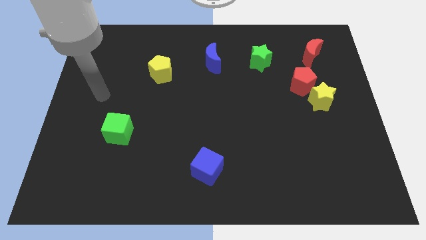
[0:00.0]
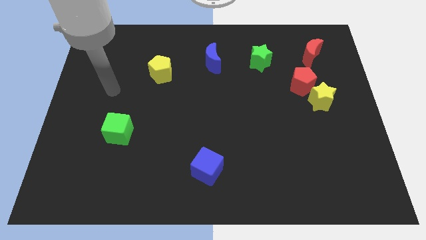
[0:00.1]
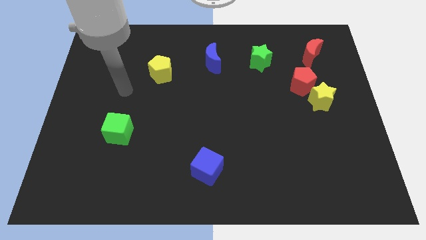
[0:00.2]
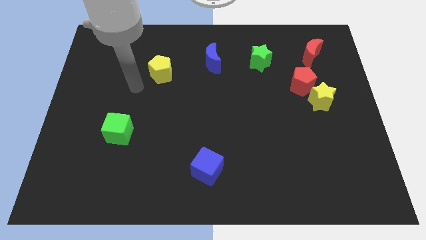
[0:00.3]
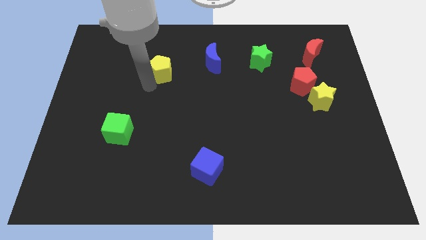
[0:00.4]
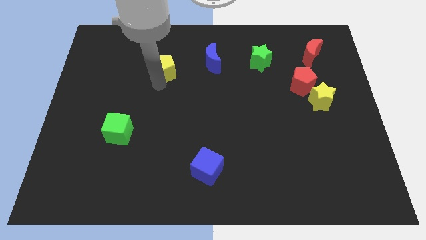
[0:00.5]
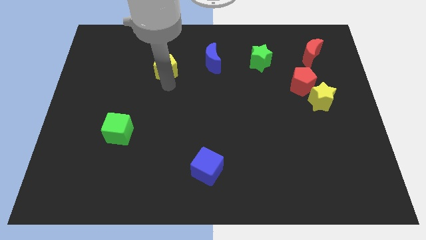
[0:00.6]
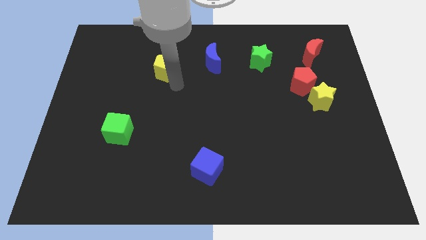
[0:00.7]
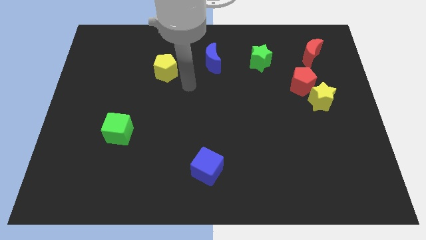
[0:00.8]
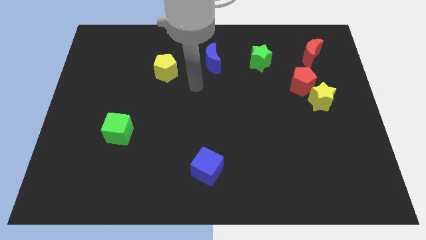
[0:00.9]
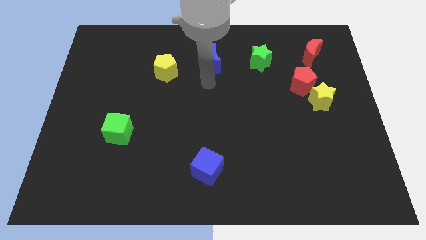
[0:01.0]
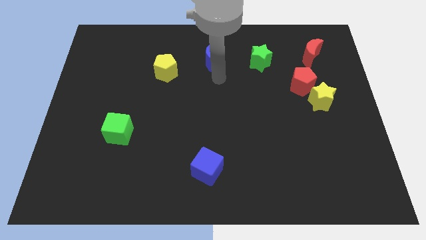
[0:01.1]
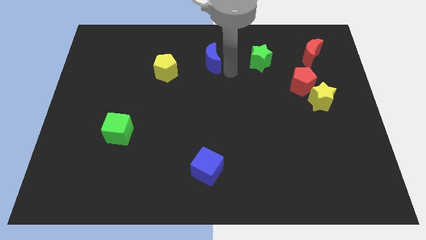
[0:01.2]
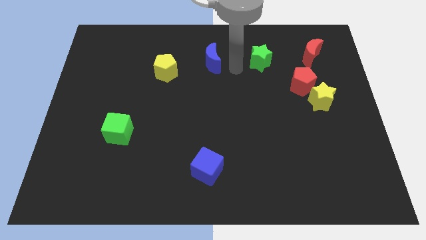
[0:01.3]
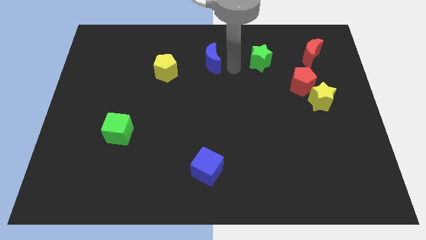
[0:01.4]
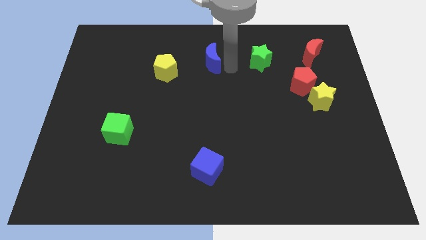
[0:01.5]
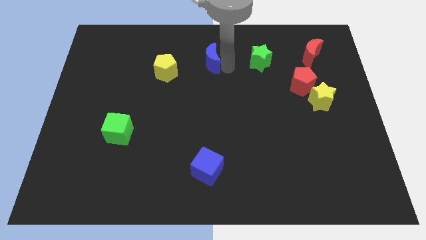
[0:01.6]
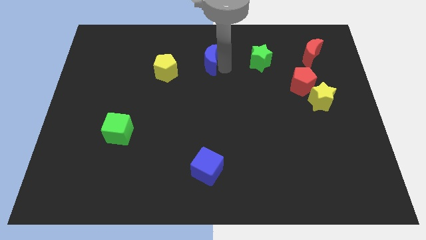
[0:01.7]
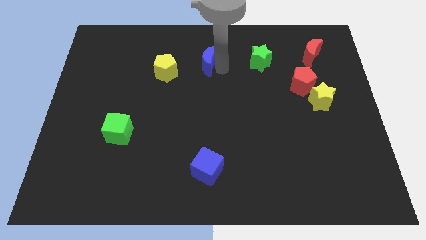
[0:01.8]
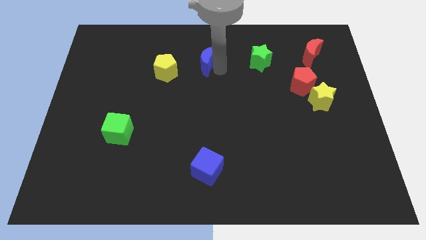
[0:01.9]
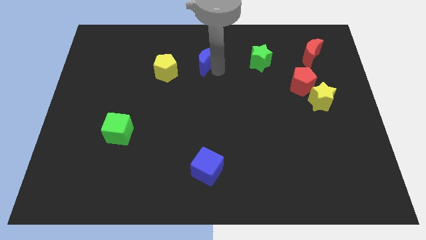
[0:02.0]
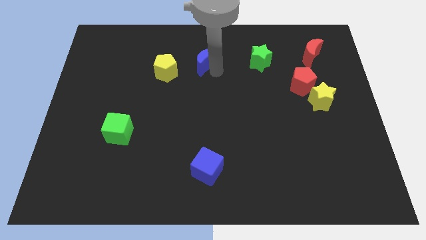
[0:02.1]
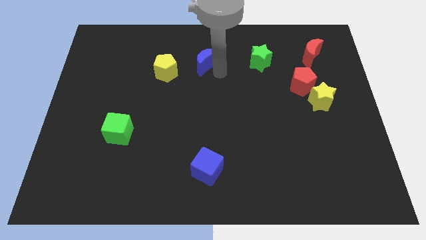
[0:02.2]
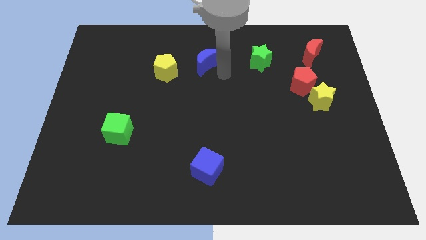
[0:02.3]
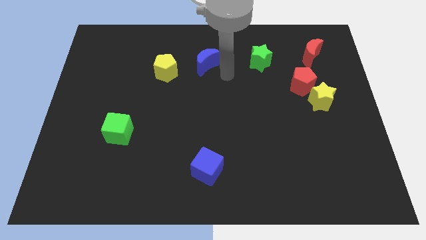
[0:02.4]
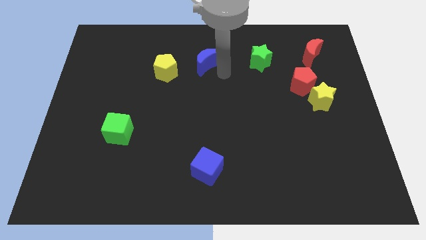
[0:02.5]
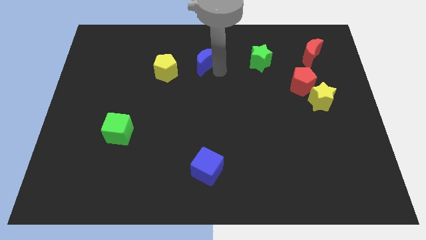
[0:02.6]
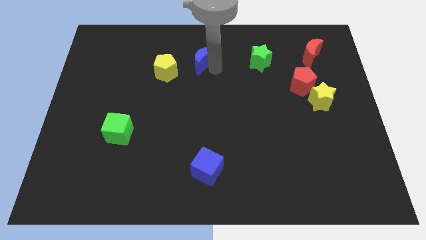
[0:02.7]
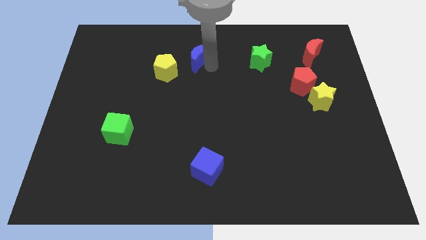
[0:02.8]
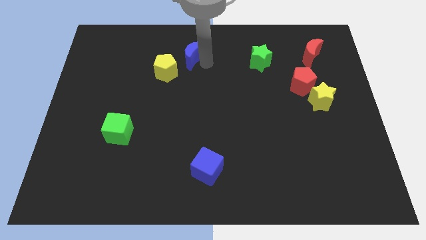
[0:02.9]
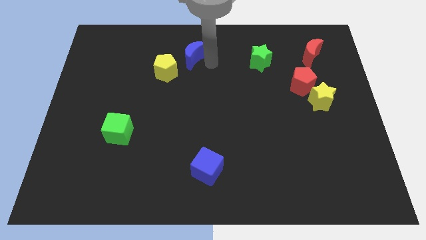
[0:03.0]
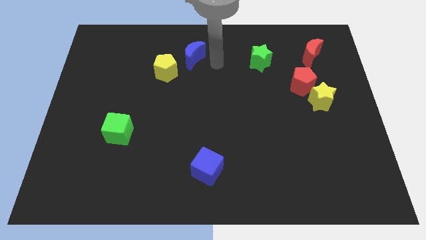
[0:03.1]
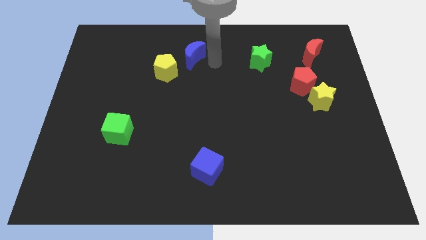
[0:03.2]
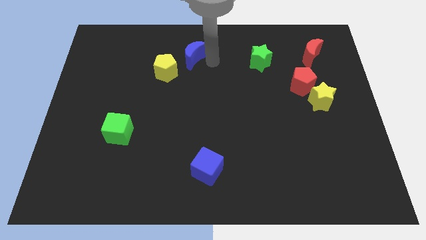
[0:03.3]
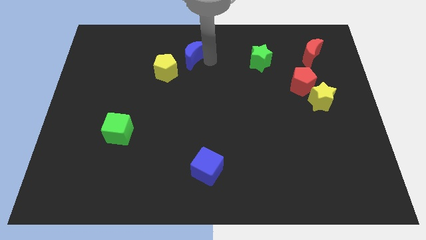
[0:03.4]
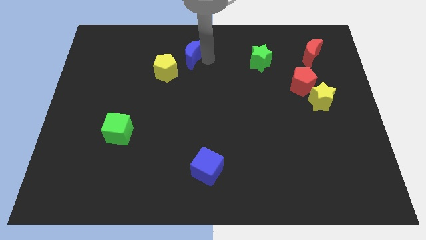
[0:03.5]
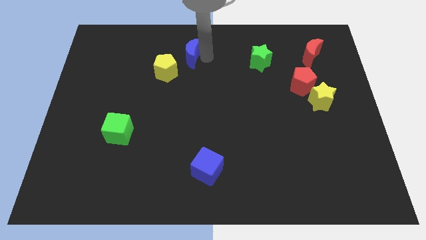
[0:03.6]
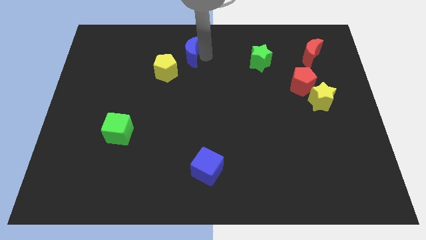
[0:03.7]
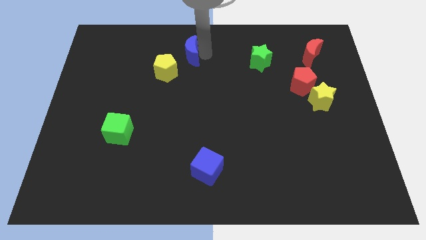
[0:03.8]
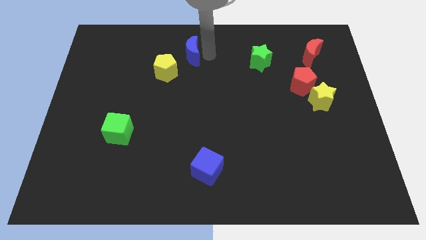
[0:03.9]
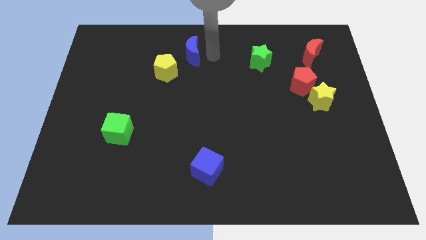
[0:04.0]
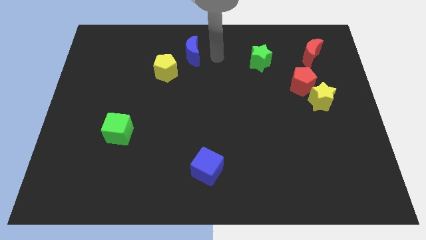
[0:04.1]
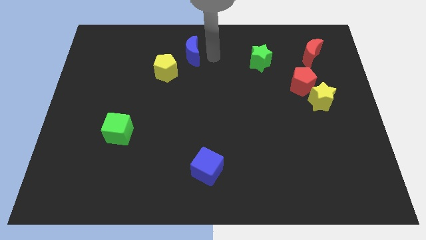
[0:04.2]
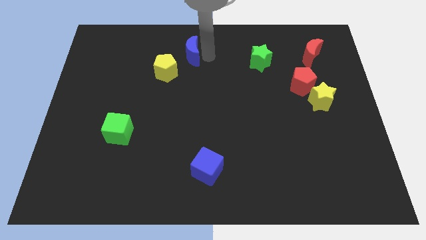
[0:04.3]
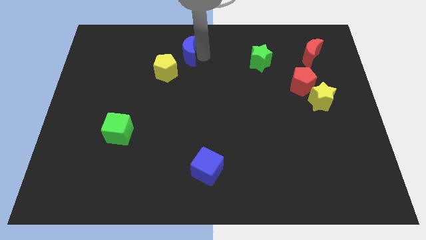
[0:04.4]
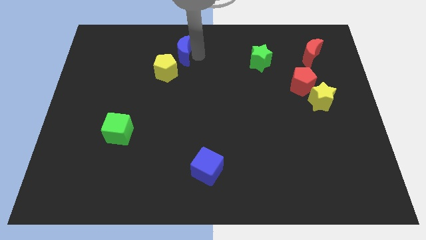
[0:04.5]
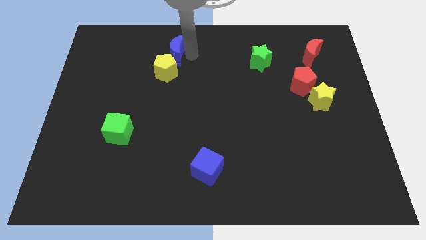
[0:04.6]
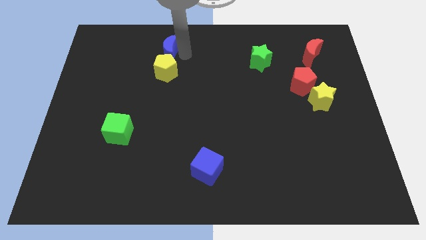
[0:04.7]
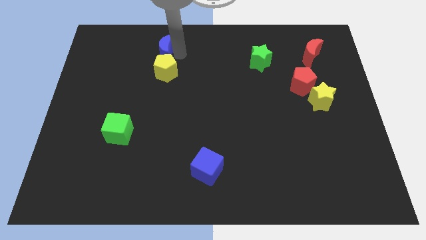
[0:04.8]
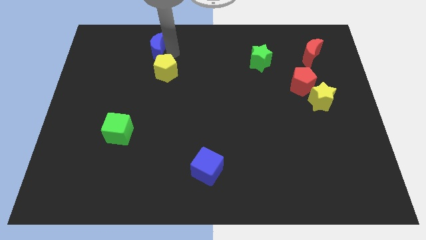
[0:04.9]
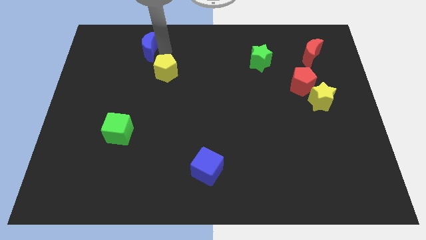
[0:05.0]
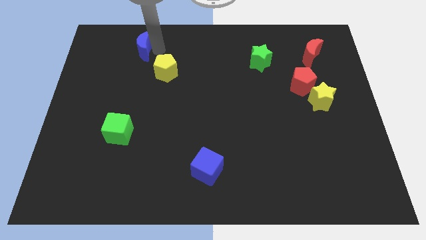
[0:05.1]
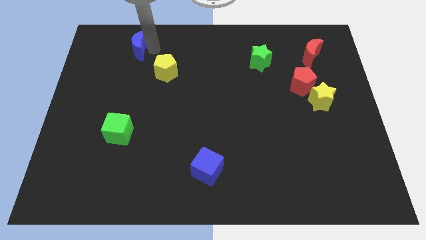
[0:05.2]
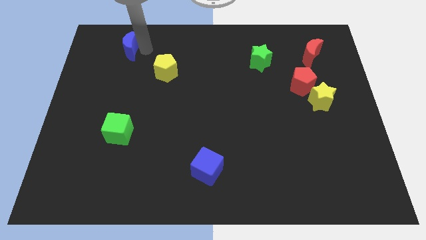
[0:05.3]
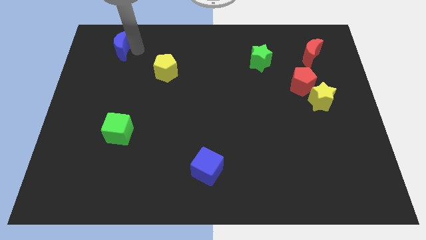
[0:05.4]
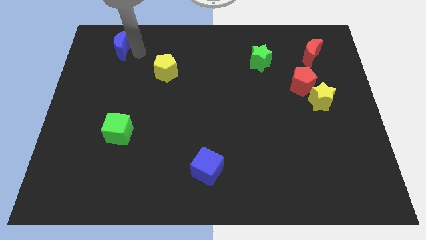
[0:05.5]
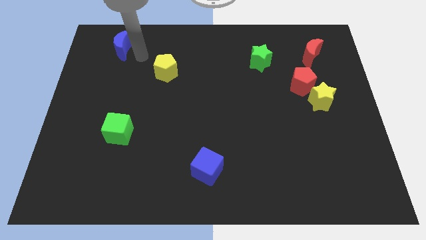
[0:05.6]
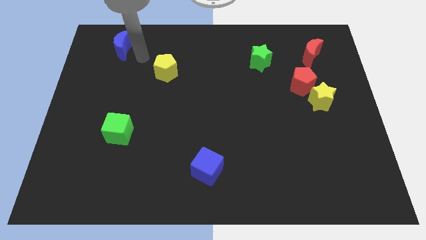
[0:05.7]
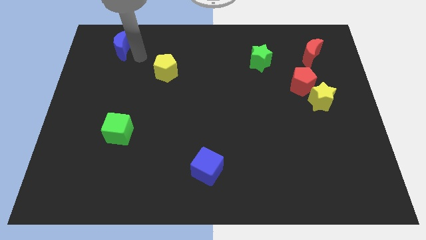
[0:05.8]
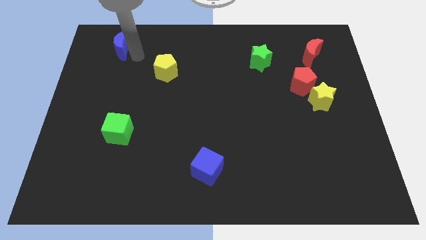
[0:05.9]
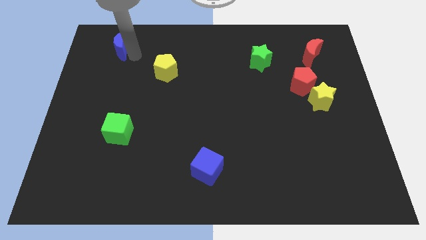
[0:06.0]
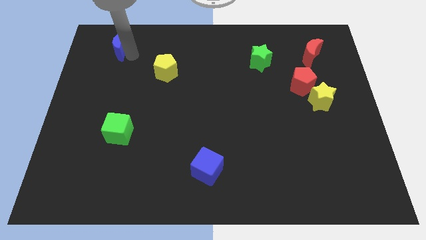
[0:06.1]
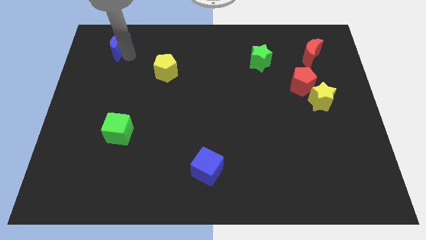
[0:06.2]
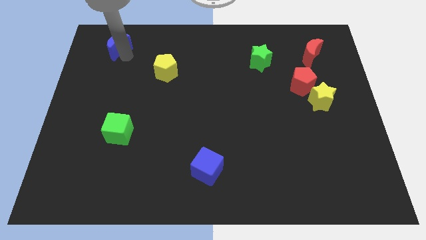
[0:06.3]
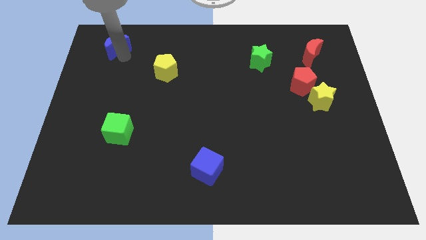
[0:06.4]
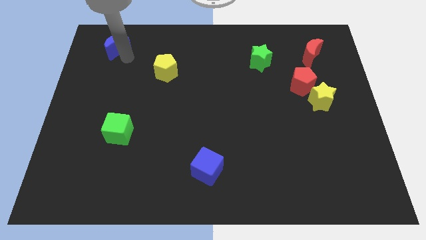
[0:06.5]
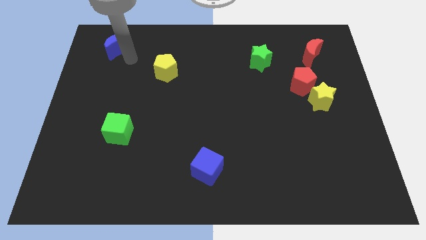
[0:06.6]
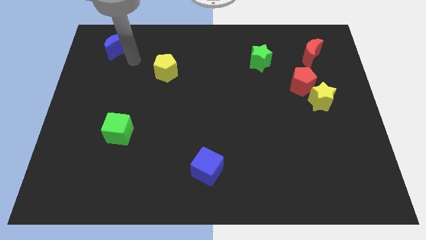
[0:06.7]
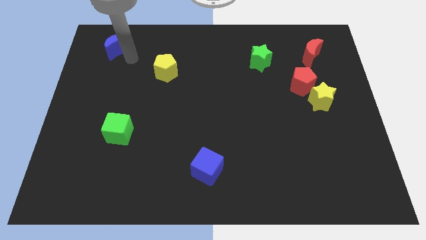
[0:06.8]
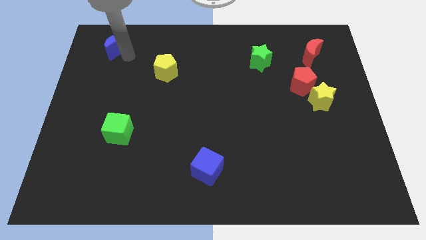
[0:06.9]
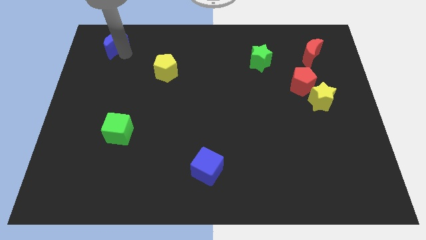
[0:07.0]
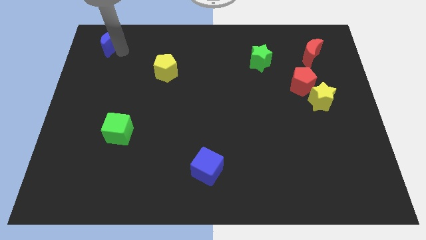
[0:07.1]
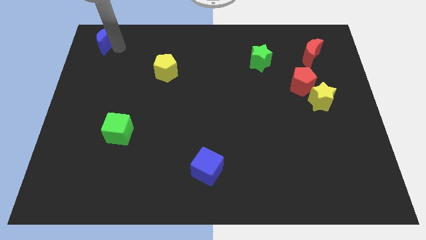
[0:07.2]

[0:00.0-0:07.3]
put the blue moon to the top left
